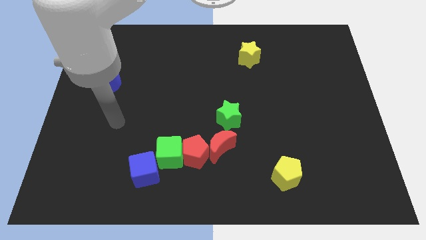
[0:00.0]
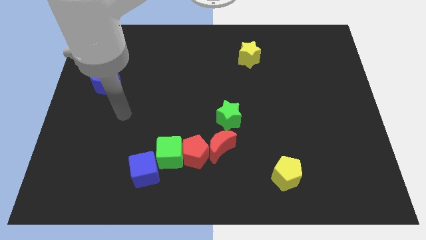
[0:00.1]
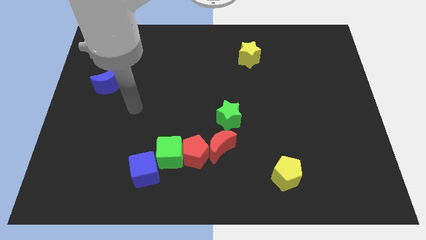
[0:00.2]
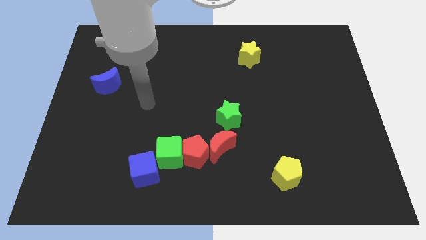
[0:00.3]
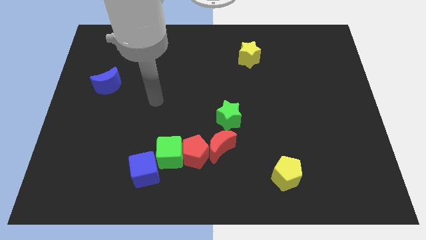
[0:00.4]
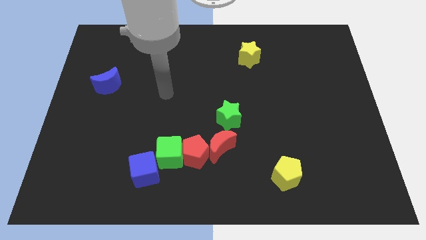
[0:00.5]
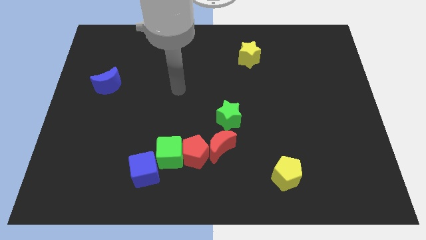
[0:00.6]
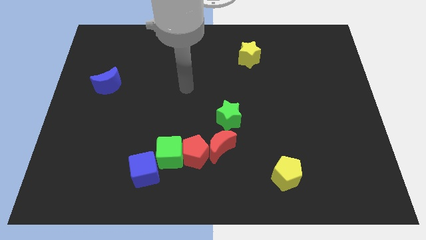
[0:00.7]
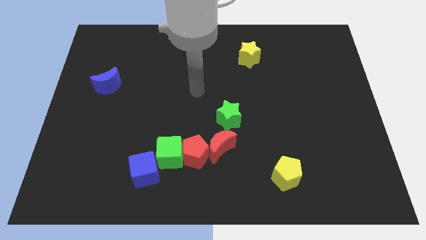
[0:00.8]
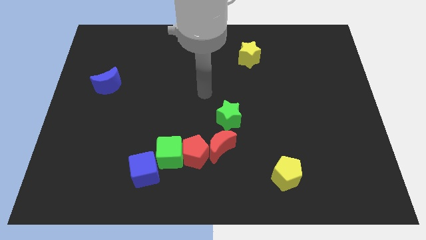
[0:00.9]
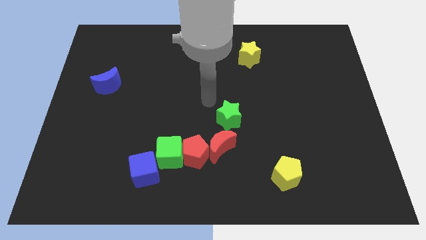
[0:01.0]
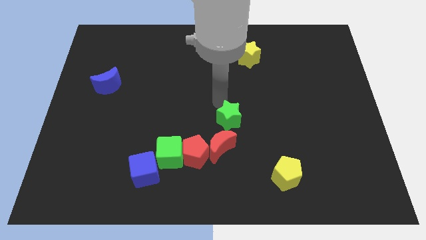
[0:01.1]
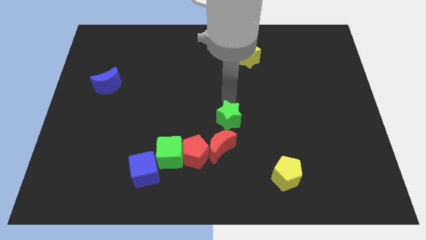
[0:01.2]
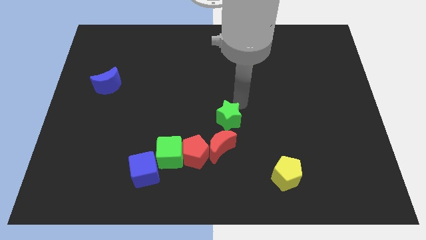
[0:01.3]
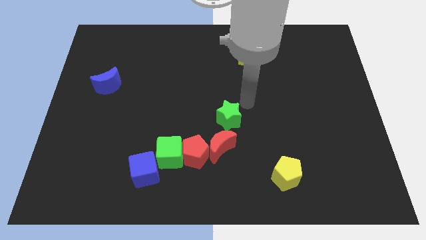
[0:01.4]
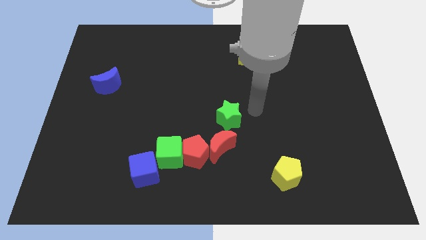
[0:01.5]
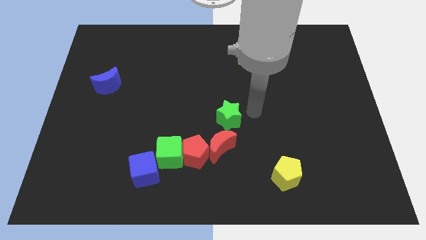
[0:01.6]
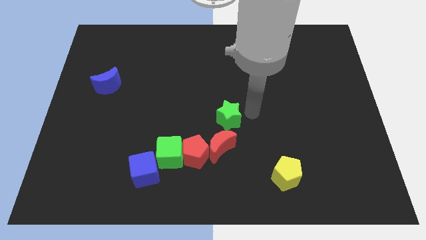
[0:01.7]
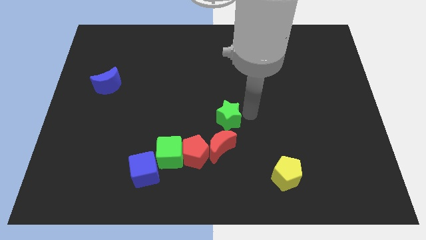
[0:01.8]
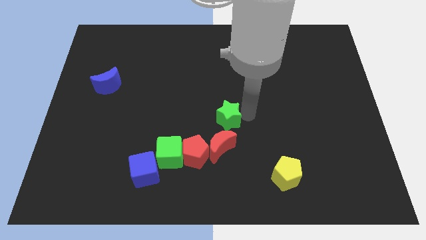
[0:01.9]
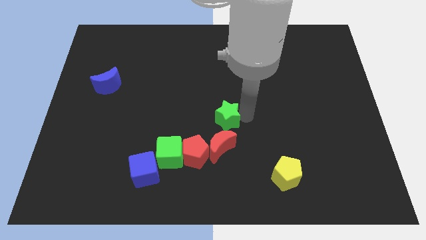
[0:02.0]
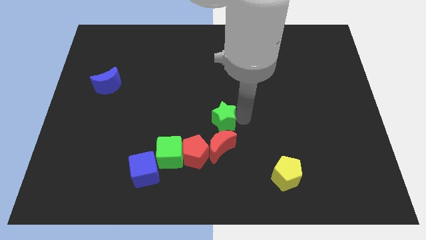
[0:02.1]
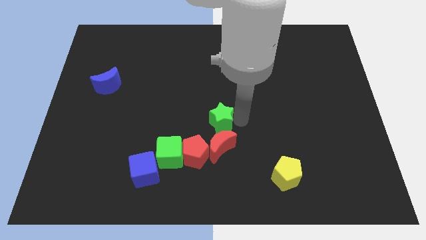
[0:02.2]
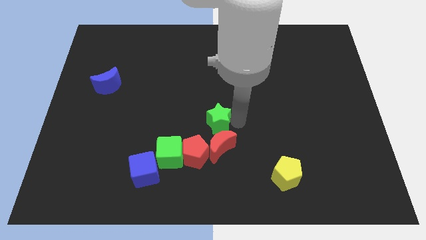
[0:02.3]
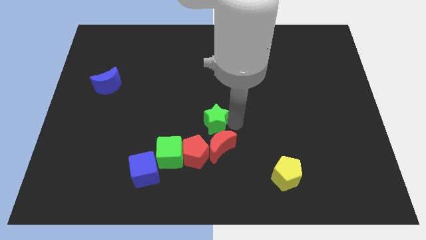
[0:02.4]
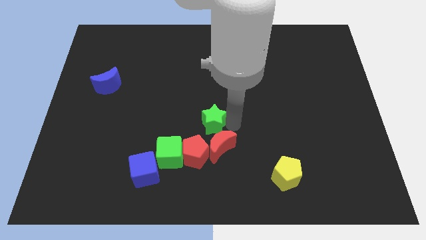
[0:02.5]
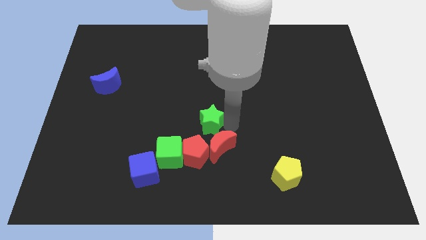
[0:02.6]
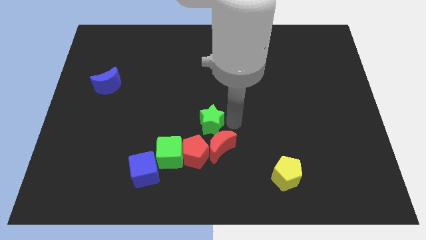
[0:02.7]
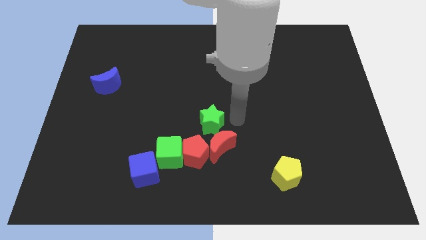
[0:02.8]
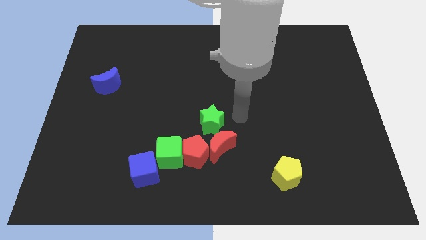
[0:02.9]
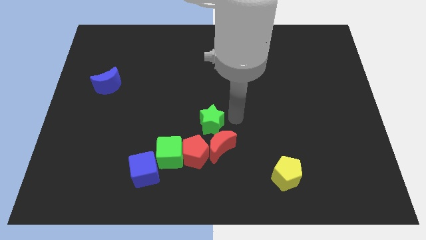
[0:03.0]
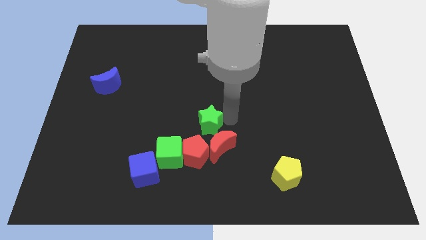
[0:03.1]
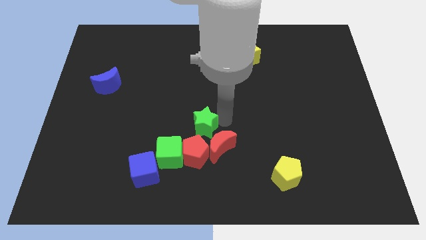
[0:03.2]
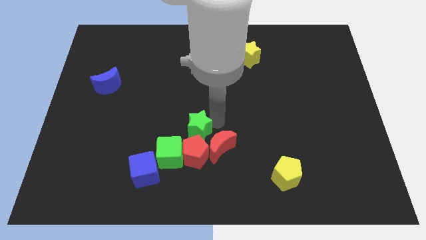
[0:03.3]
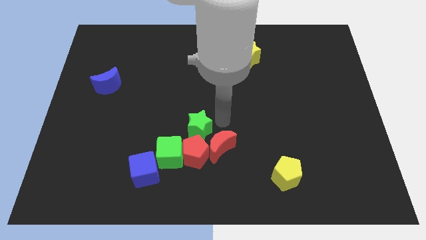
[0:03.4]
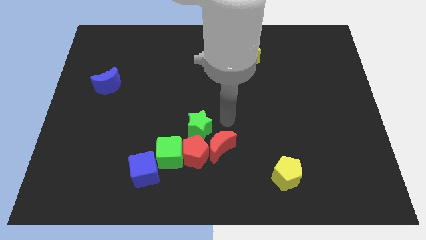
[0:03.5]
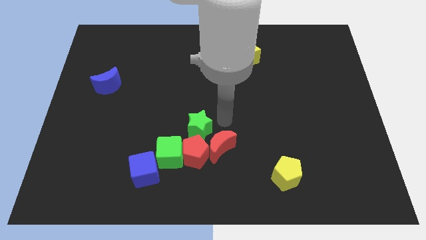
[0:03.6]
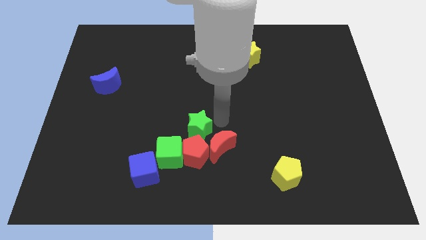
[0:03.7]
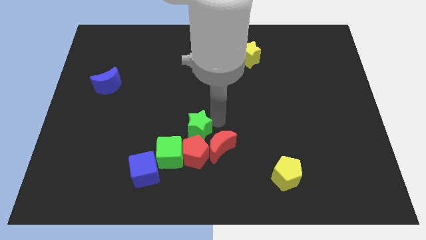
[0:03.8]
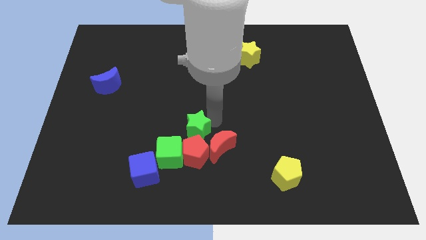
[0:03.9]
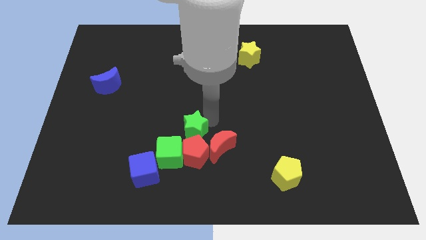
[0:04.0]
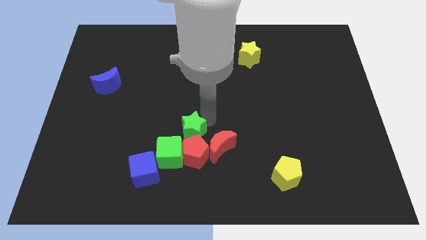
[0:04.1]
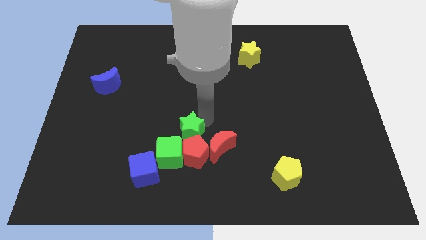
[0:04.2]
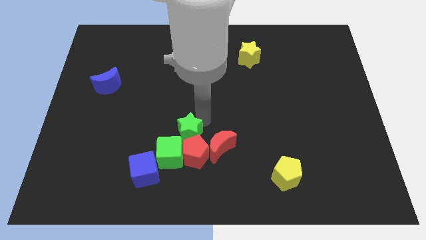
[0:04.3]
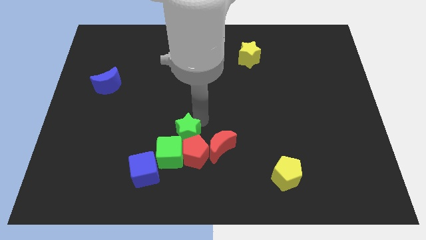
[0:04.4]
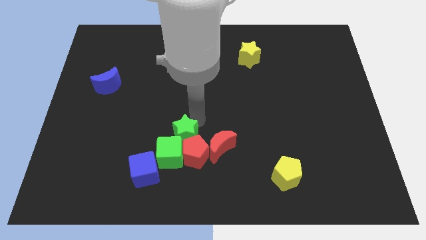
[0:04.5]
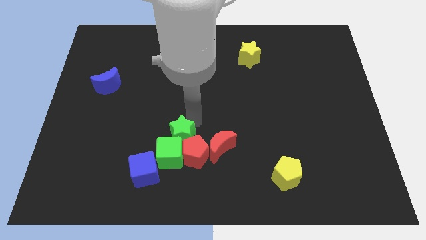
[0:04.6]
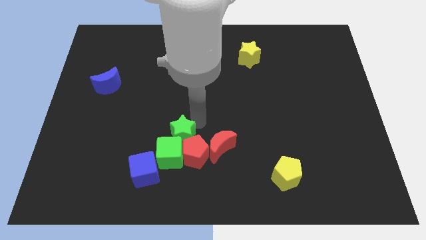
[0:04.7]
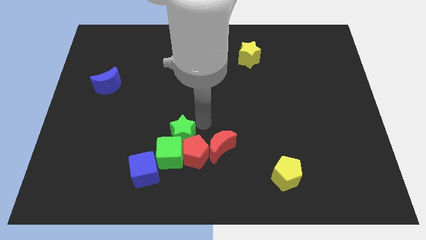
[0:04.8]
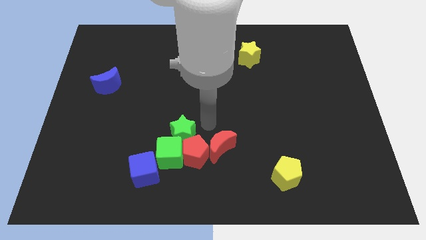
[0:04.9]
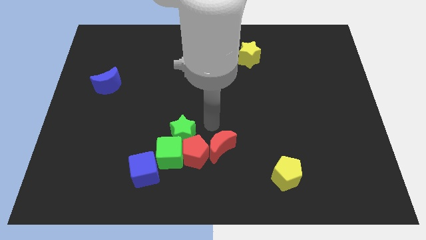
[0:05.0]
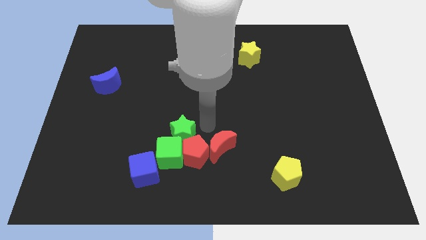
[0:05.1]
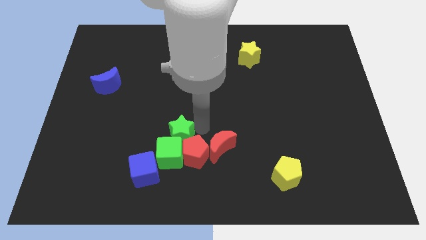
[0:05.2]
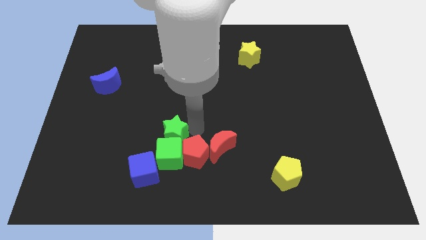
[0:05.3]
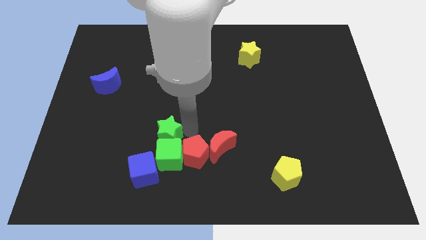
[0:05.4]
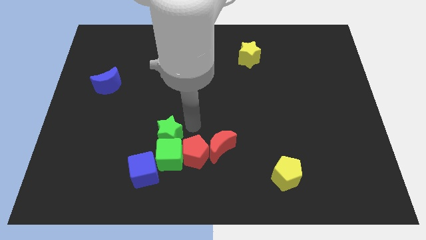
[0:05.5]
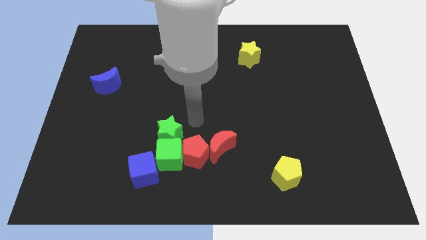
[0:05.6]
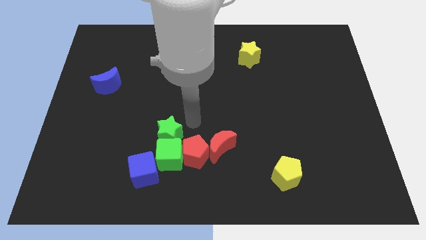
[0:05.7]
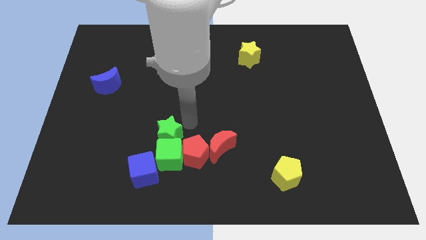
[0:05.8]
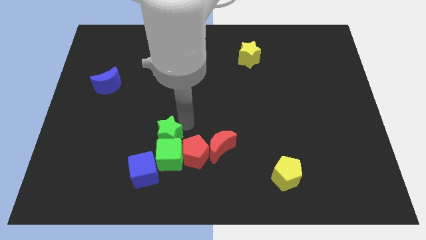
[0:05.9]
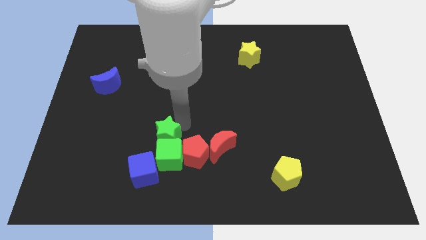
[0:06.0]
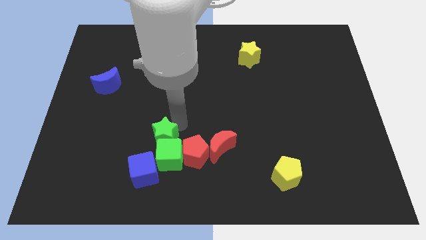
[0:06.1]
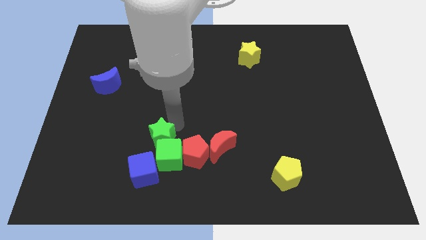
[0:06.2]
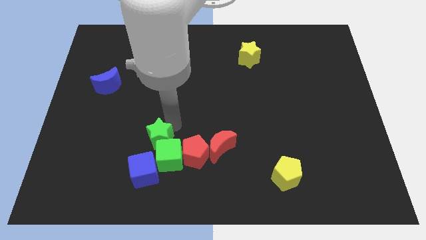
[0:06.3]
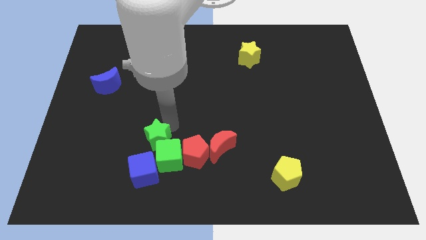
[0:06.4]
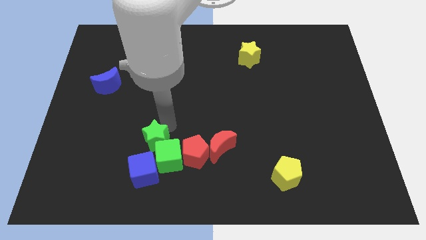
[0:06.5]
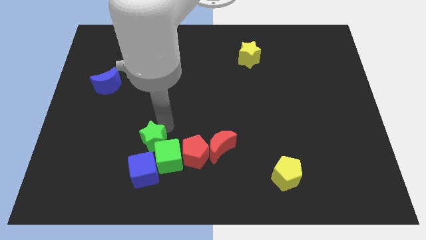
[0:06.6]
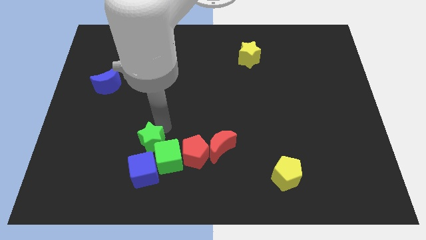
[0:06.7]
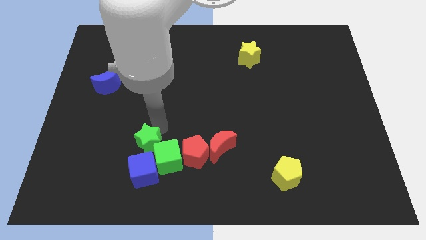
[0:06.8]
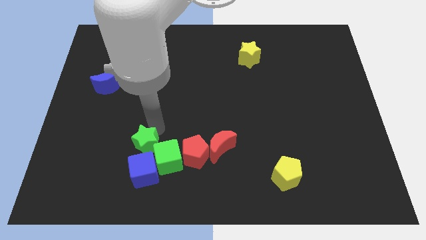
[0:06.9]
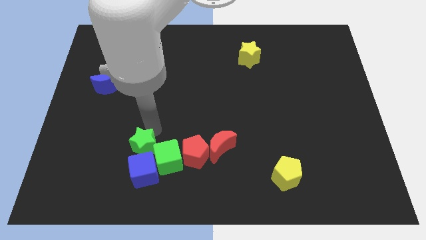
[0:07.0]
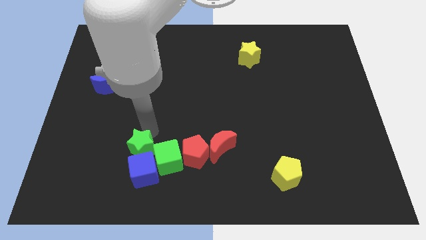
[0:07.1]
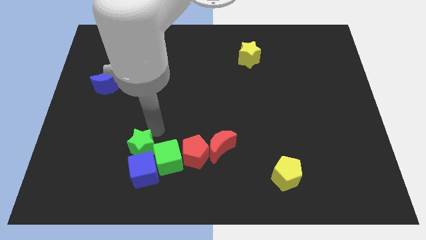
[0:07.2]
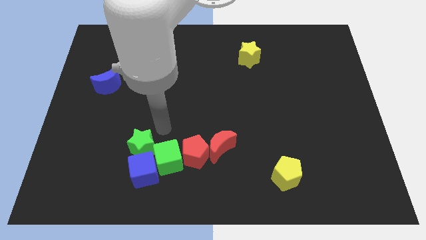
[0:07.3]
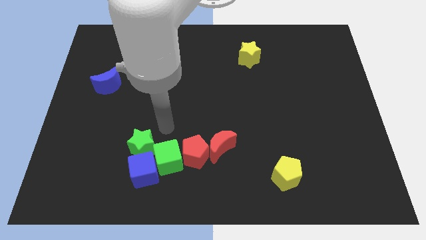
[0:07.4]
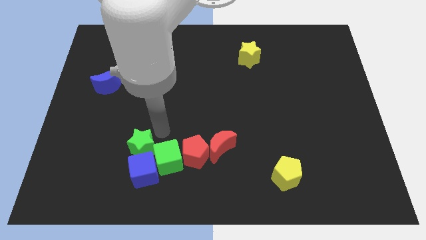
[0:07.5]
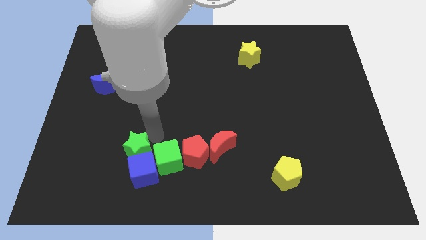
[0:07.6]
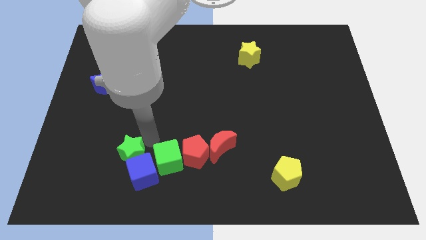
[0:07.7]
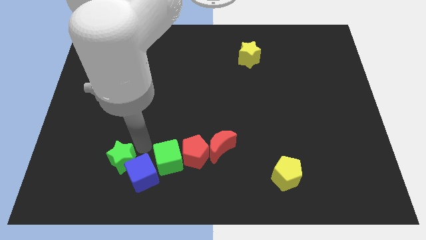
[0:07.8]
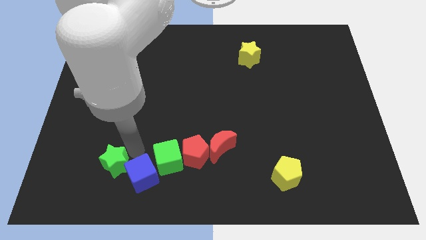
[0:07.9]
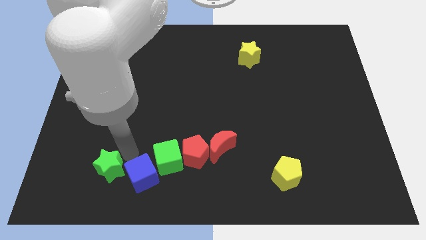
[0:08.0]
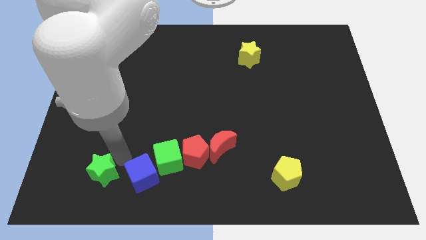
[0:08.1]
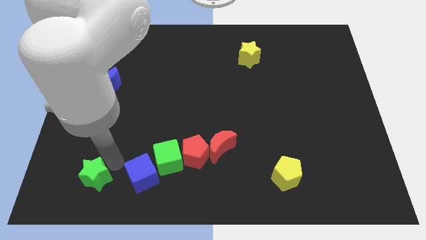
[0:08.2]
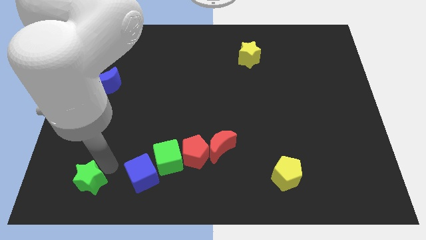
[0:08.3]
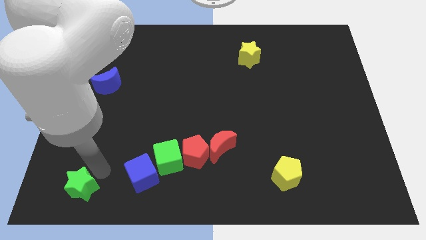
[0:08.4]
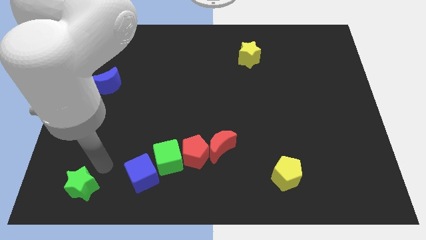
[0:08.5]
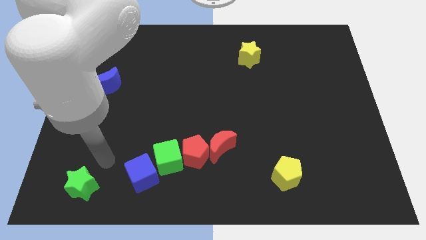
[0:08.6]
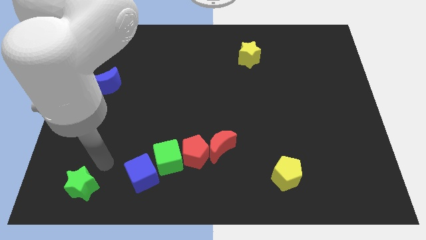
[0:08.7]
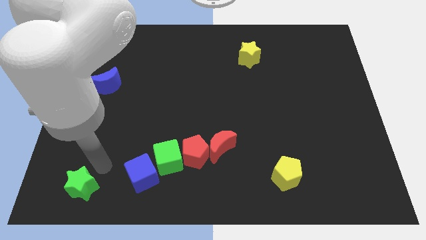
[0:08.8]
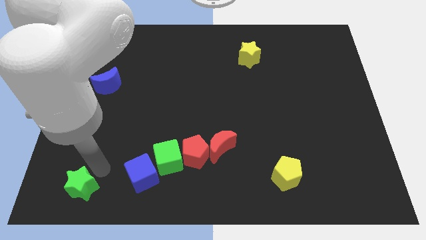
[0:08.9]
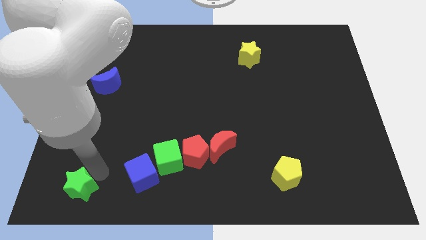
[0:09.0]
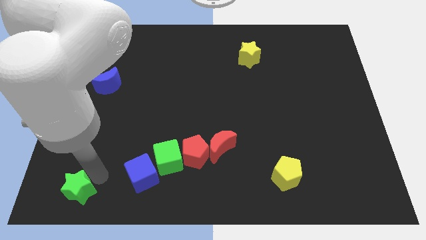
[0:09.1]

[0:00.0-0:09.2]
put the green star to the lower left corner
